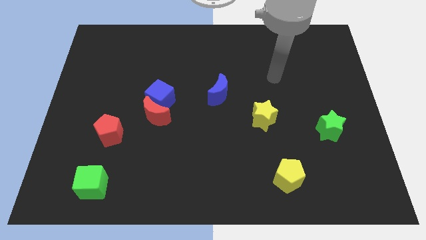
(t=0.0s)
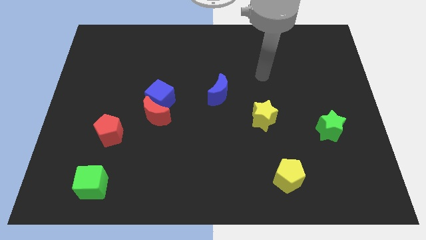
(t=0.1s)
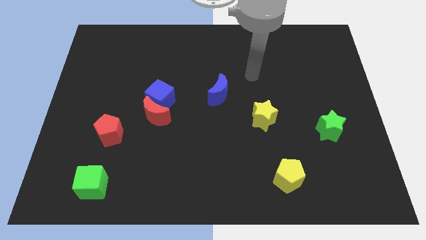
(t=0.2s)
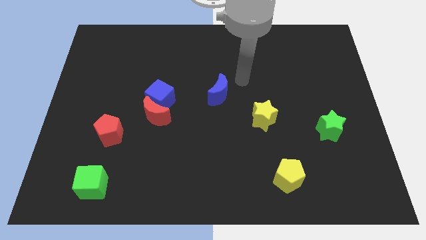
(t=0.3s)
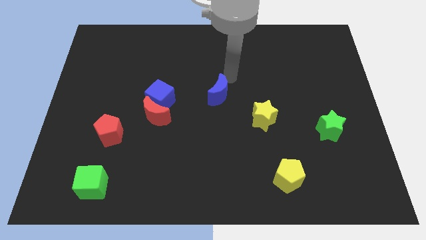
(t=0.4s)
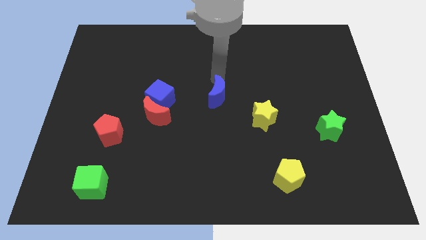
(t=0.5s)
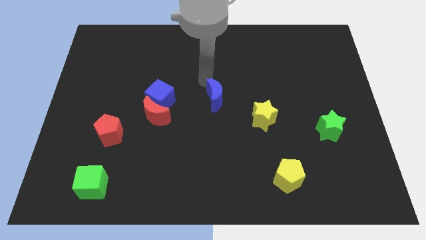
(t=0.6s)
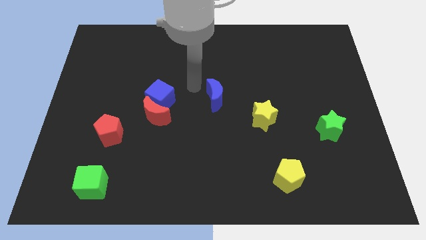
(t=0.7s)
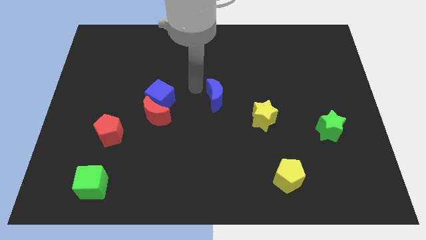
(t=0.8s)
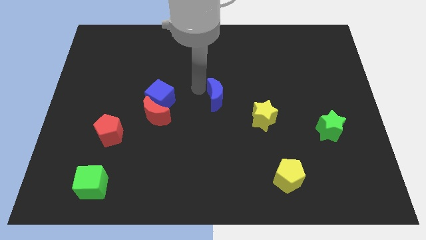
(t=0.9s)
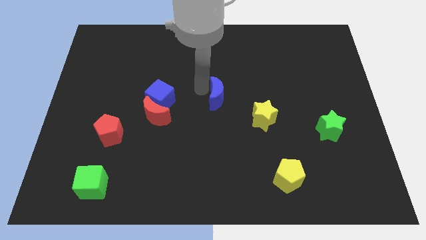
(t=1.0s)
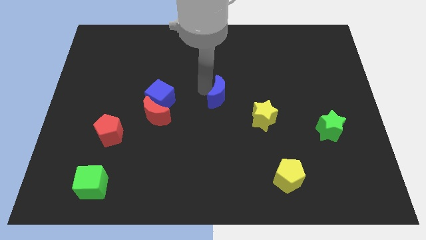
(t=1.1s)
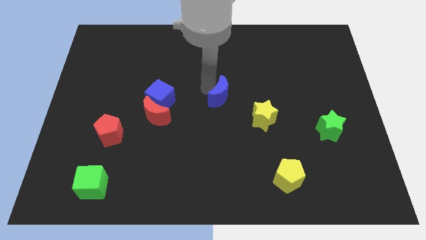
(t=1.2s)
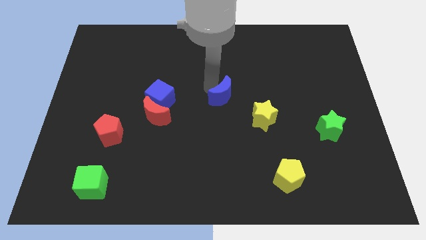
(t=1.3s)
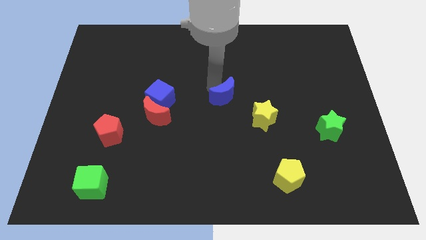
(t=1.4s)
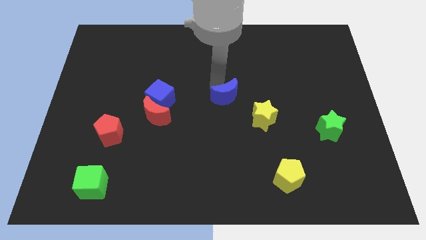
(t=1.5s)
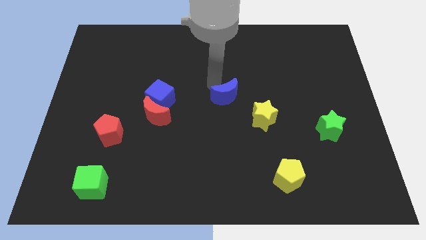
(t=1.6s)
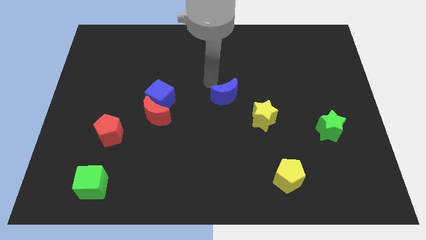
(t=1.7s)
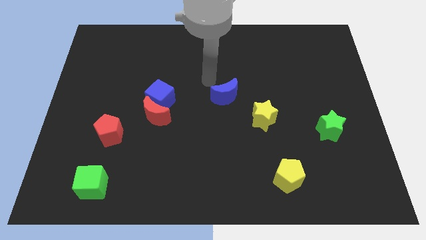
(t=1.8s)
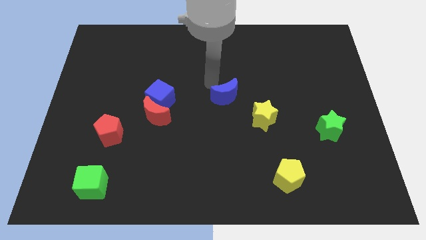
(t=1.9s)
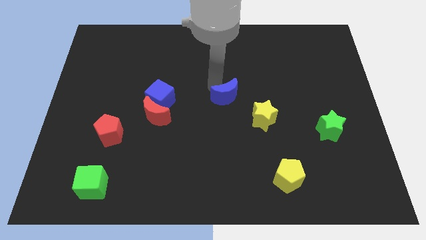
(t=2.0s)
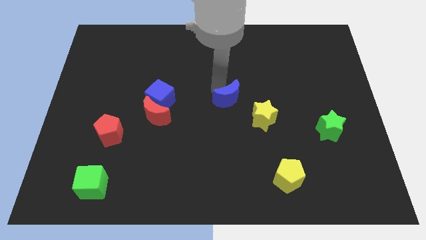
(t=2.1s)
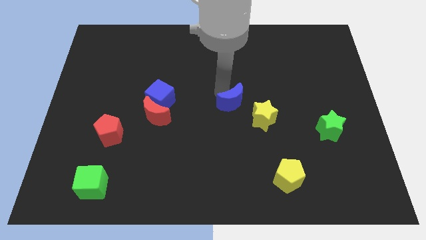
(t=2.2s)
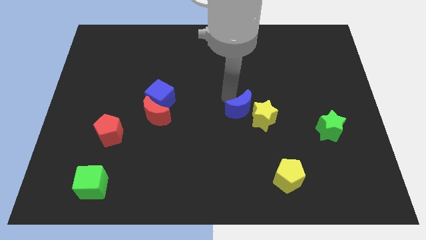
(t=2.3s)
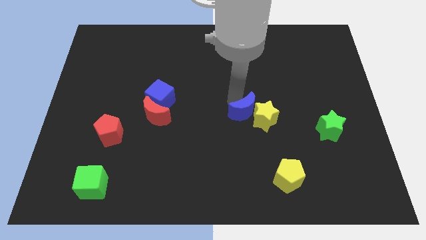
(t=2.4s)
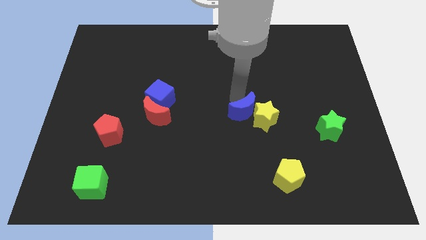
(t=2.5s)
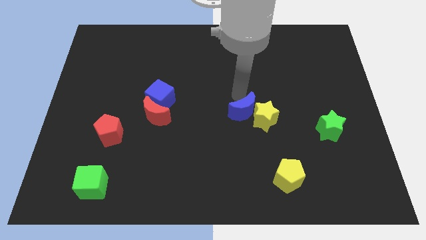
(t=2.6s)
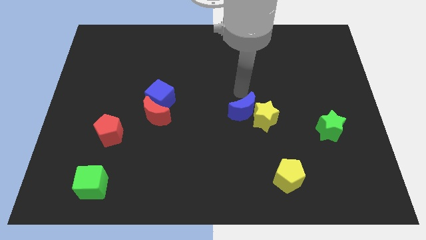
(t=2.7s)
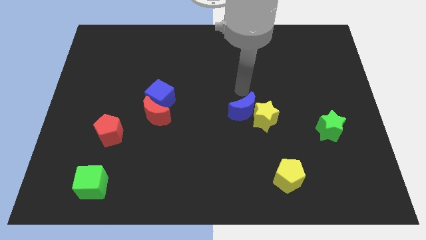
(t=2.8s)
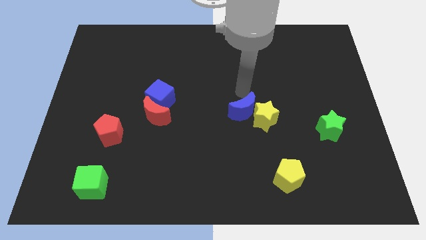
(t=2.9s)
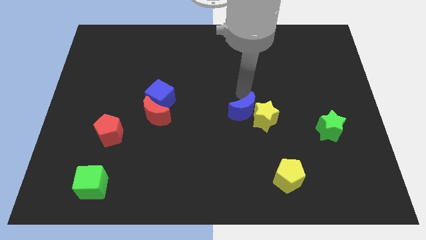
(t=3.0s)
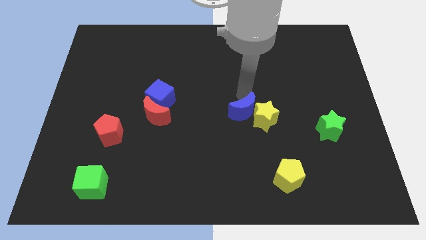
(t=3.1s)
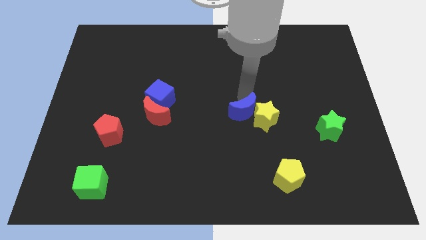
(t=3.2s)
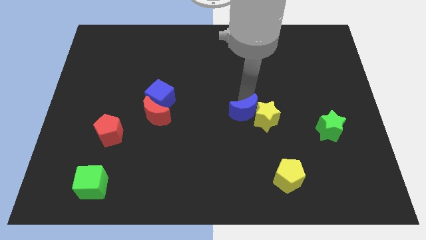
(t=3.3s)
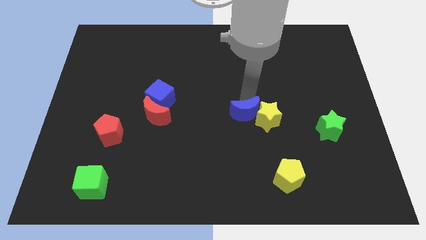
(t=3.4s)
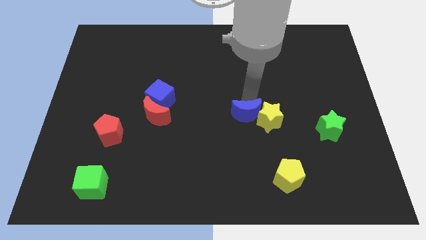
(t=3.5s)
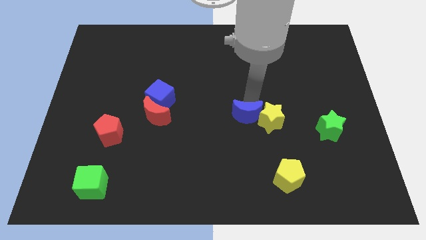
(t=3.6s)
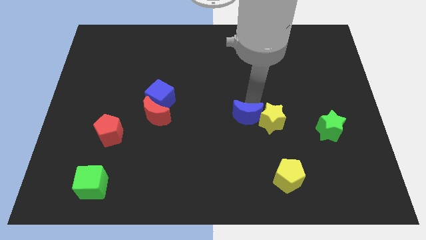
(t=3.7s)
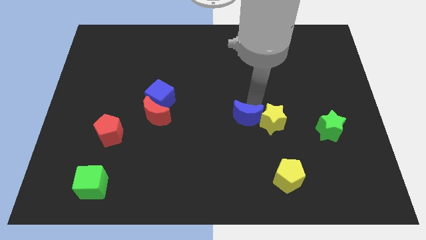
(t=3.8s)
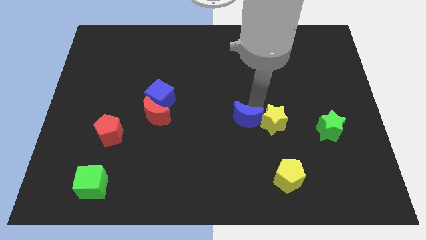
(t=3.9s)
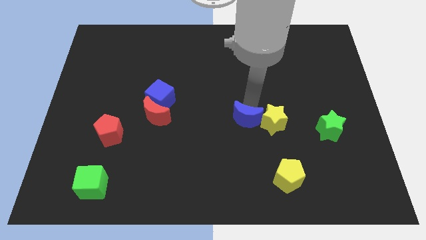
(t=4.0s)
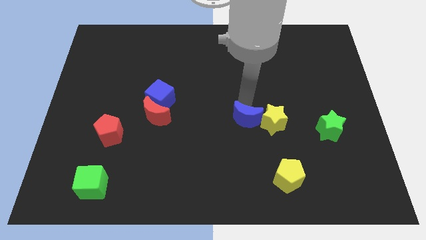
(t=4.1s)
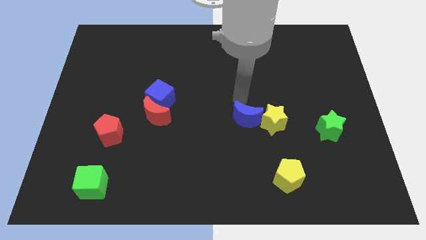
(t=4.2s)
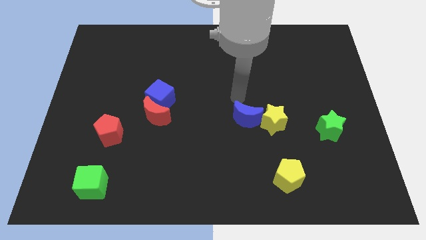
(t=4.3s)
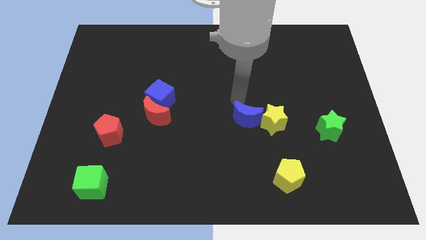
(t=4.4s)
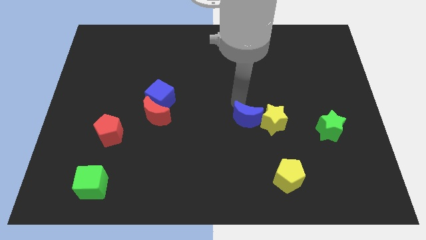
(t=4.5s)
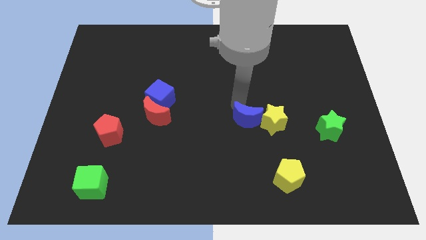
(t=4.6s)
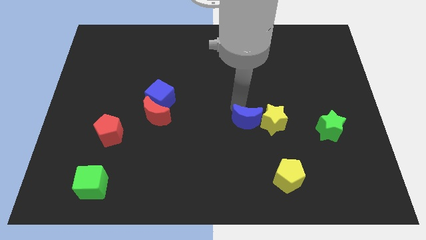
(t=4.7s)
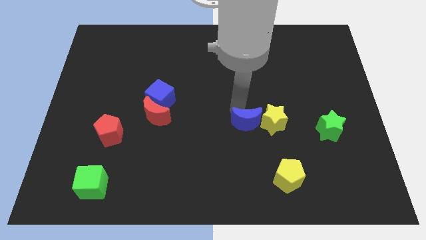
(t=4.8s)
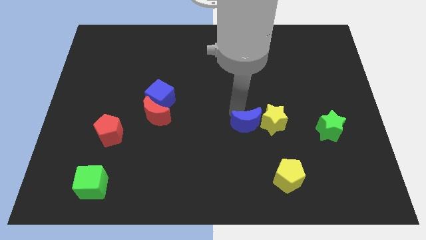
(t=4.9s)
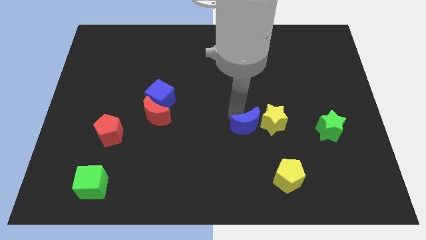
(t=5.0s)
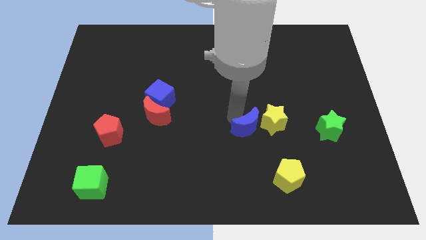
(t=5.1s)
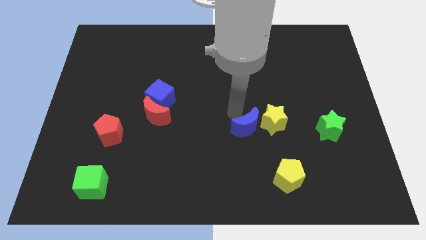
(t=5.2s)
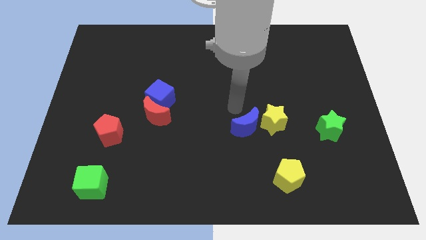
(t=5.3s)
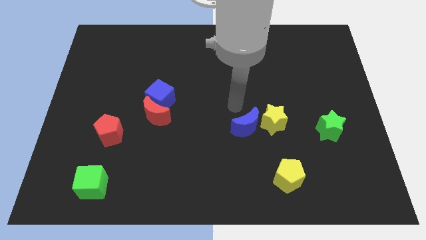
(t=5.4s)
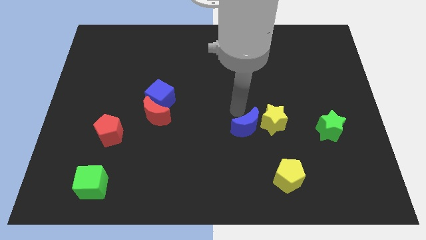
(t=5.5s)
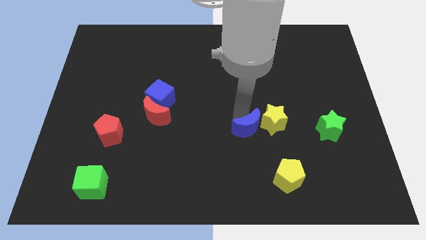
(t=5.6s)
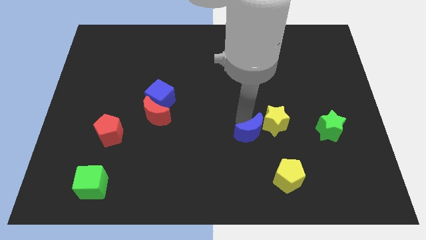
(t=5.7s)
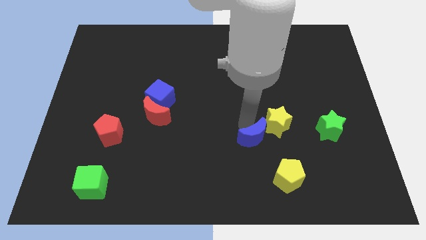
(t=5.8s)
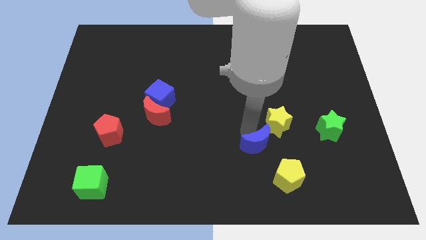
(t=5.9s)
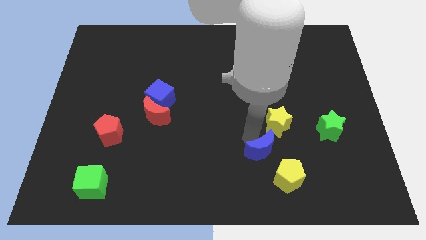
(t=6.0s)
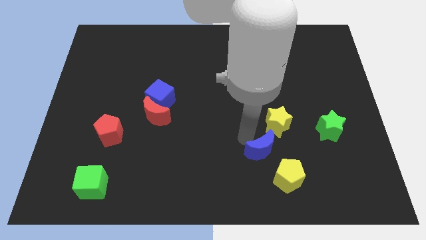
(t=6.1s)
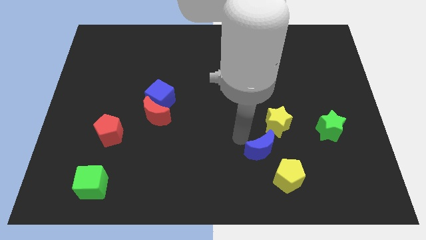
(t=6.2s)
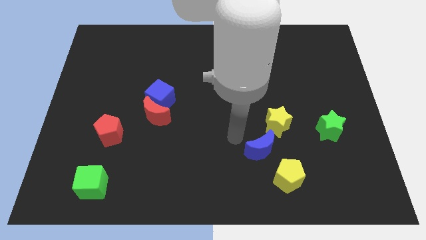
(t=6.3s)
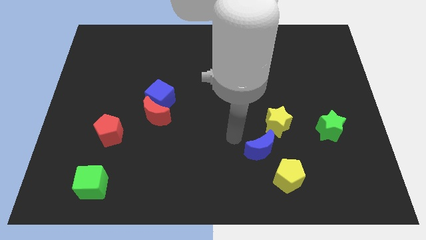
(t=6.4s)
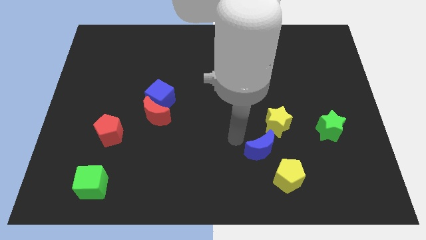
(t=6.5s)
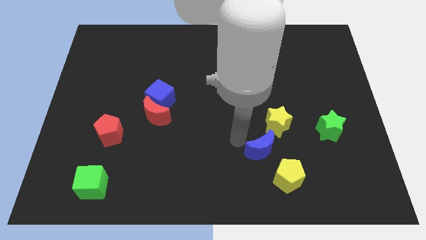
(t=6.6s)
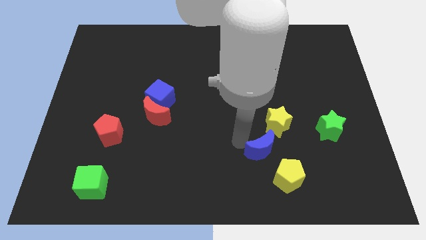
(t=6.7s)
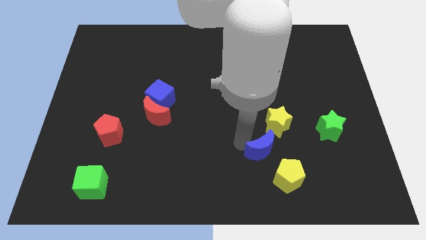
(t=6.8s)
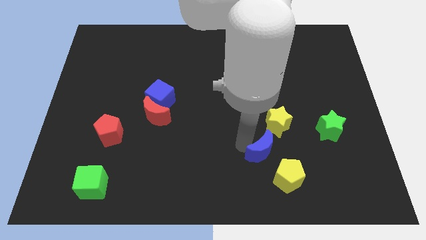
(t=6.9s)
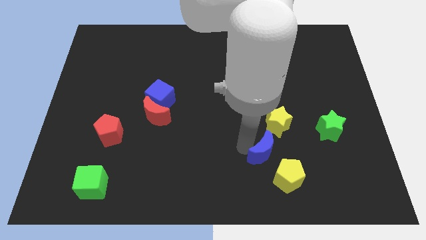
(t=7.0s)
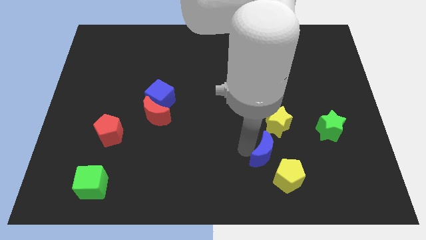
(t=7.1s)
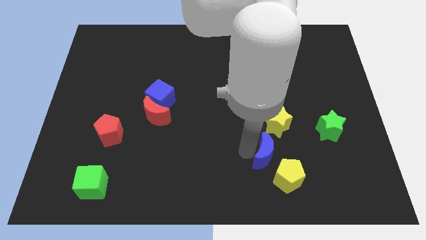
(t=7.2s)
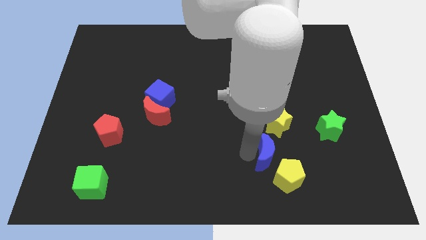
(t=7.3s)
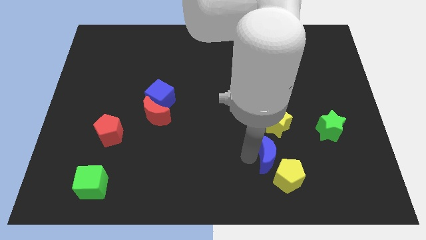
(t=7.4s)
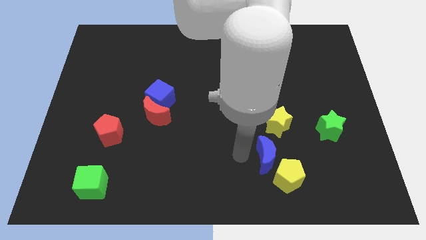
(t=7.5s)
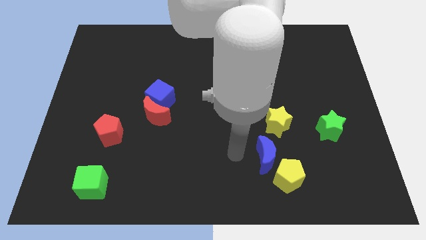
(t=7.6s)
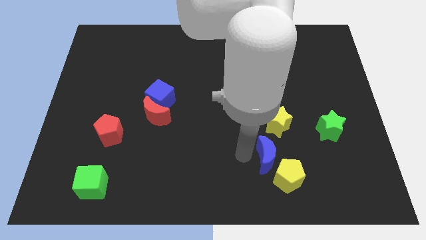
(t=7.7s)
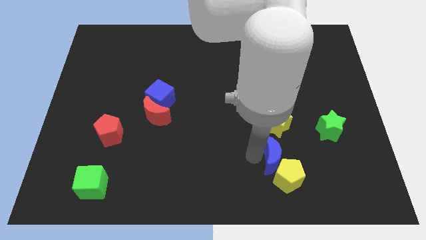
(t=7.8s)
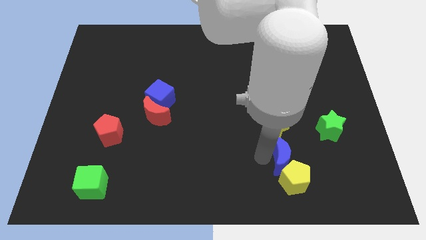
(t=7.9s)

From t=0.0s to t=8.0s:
move the blue moon downwards and then right

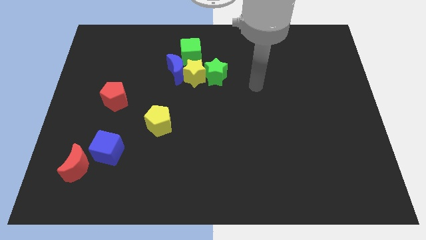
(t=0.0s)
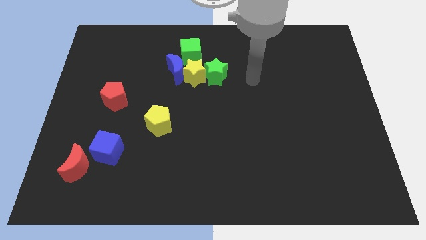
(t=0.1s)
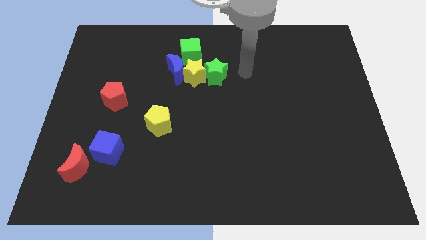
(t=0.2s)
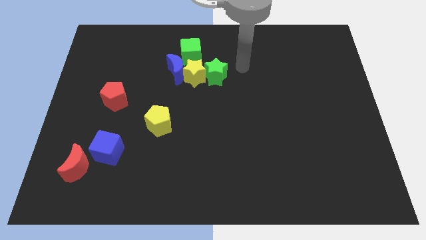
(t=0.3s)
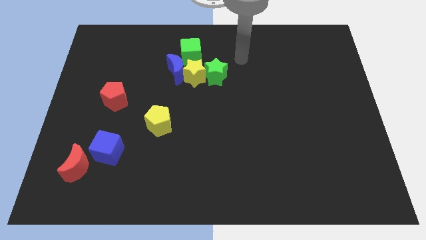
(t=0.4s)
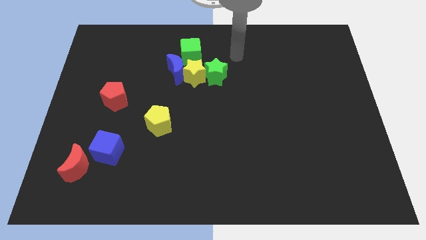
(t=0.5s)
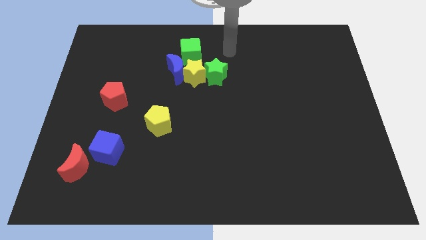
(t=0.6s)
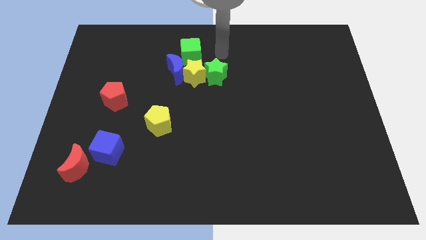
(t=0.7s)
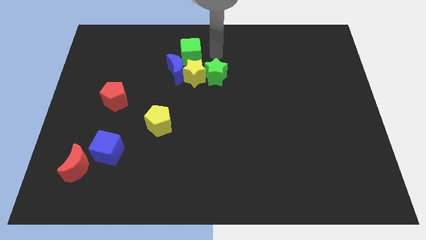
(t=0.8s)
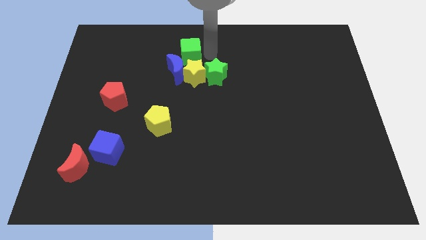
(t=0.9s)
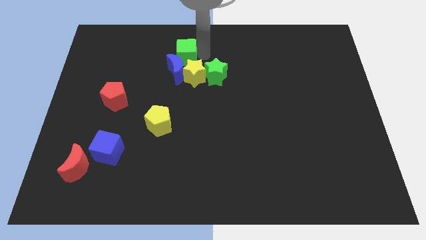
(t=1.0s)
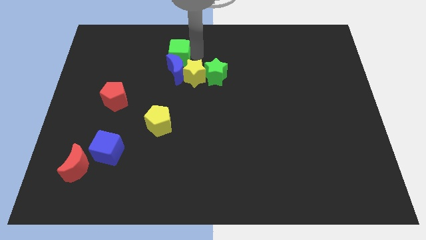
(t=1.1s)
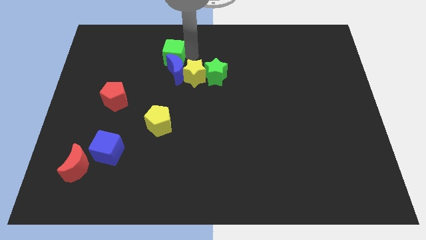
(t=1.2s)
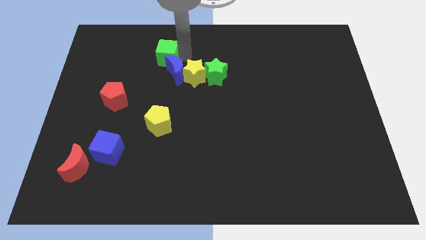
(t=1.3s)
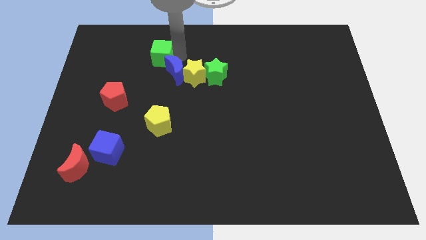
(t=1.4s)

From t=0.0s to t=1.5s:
push the green cube to the left a little bit
